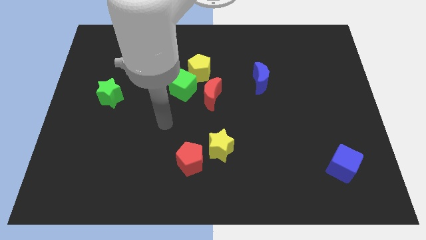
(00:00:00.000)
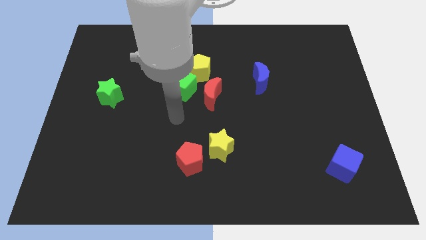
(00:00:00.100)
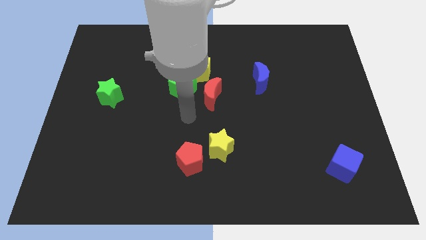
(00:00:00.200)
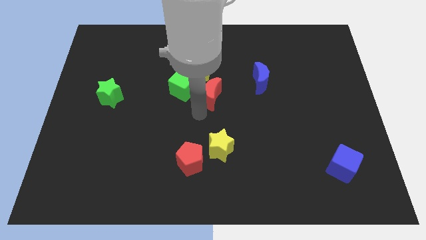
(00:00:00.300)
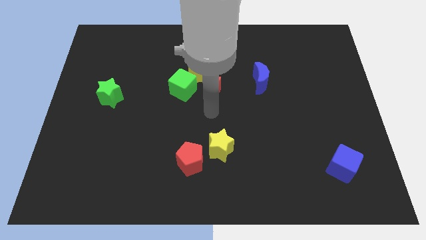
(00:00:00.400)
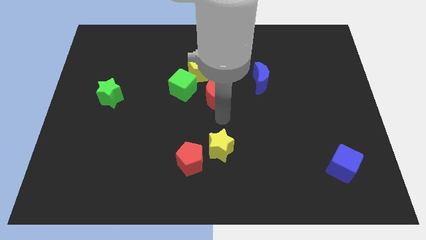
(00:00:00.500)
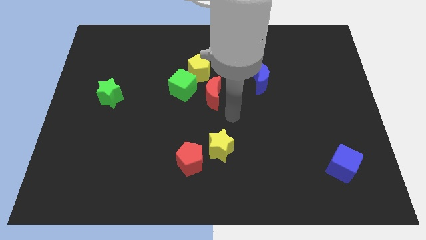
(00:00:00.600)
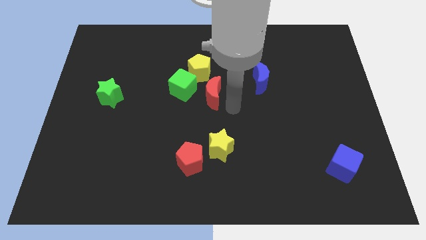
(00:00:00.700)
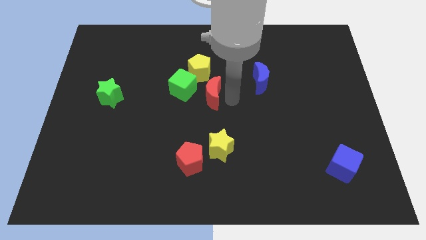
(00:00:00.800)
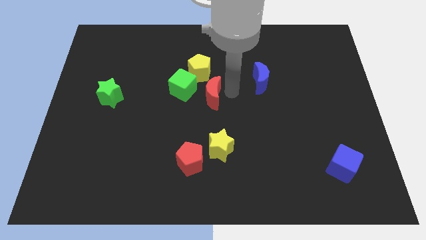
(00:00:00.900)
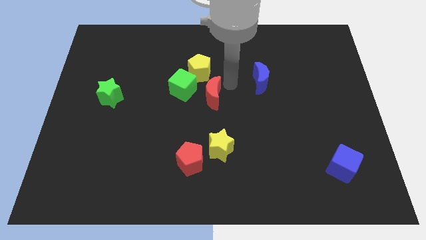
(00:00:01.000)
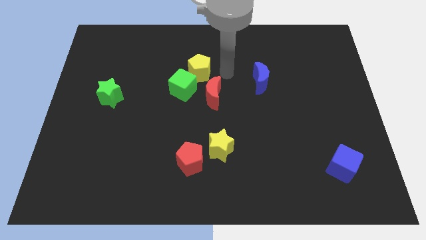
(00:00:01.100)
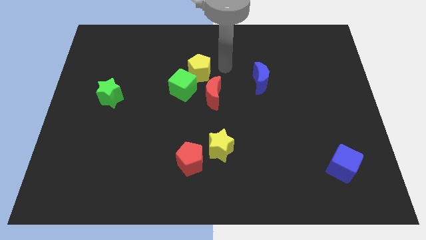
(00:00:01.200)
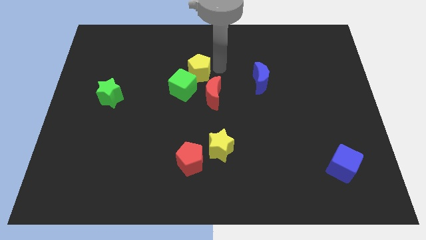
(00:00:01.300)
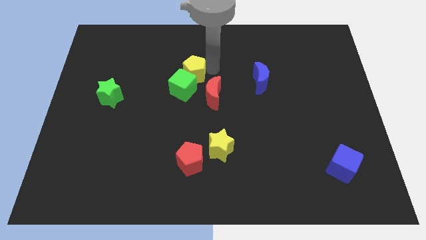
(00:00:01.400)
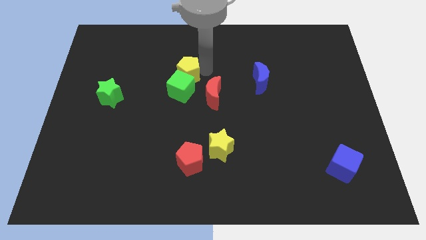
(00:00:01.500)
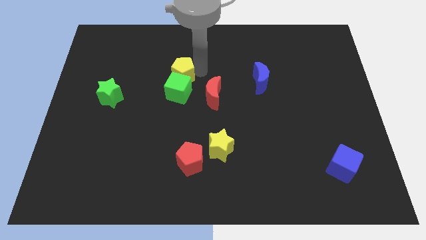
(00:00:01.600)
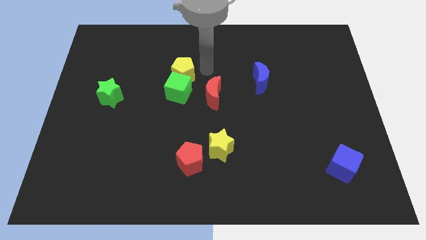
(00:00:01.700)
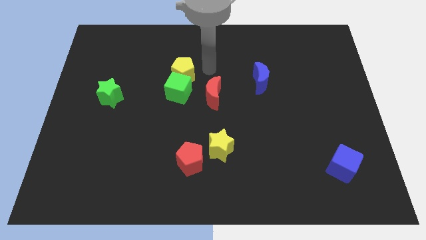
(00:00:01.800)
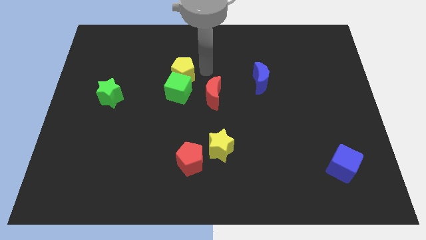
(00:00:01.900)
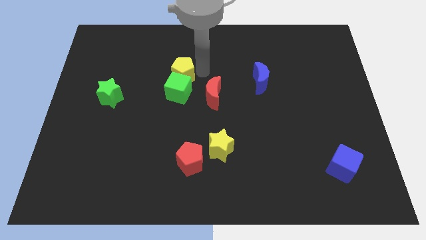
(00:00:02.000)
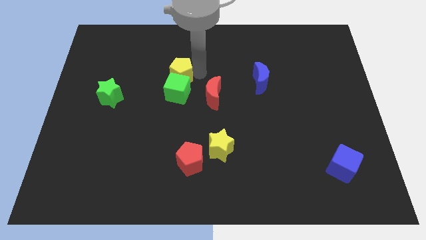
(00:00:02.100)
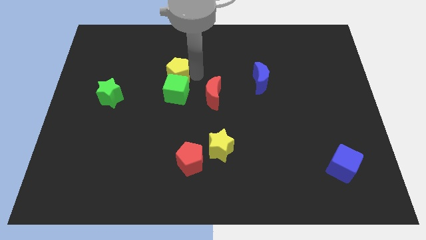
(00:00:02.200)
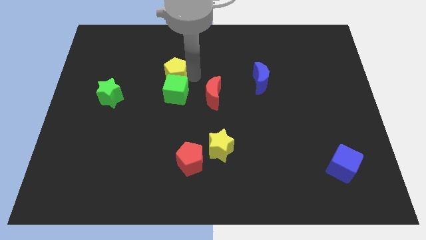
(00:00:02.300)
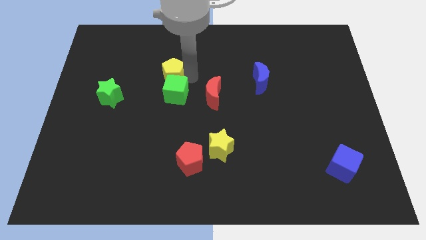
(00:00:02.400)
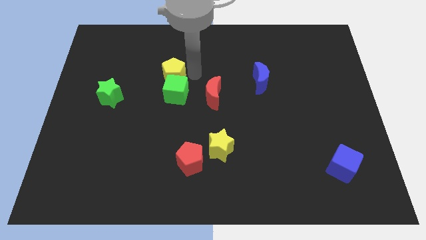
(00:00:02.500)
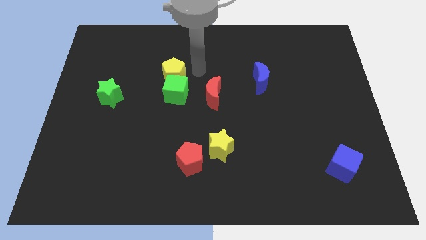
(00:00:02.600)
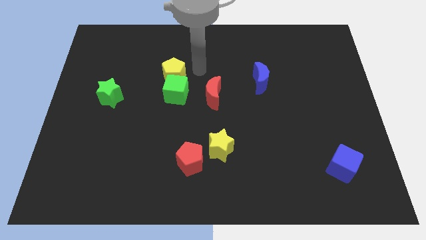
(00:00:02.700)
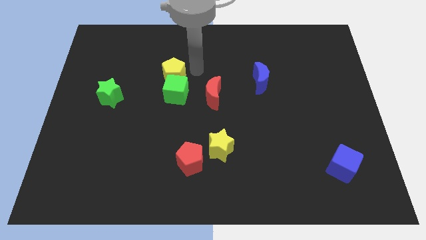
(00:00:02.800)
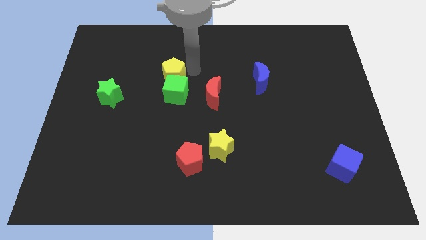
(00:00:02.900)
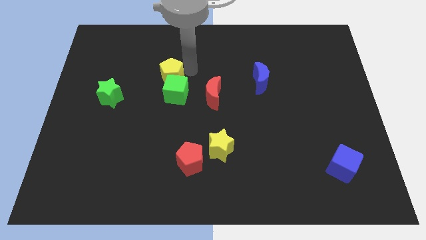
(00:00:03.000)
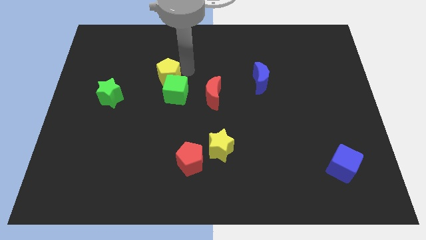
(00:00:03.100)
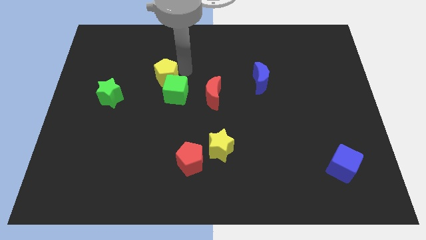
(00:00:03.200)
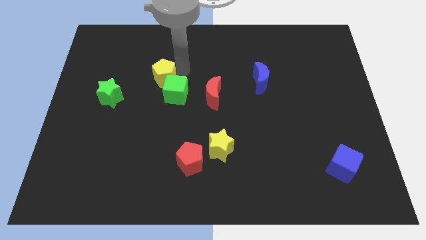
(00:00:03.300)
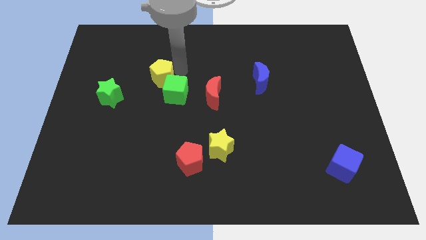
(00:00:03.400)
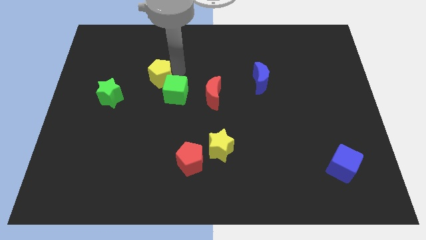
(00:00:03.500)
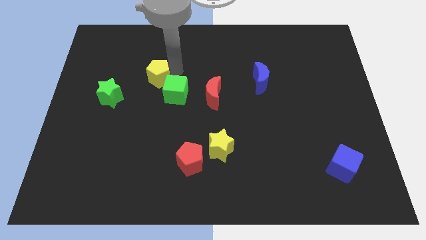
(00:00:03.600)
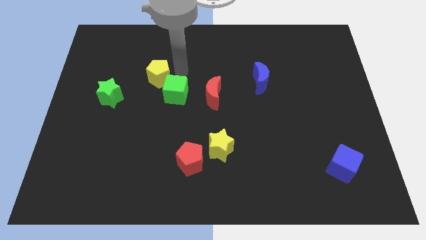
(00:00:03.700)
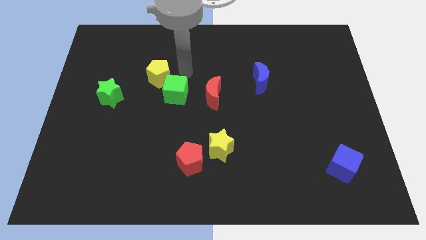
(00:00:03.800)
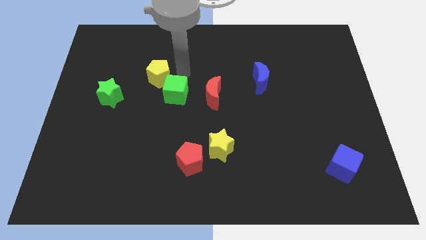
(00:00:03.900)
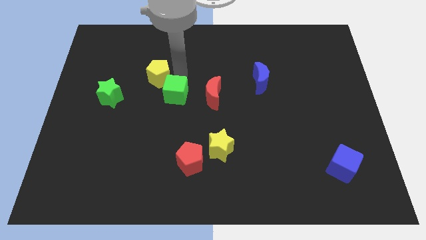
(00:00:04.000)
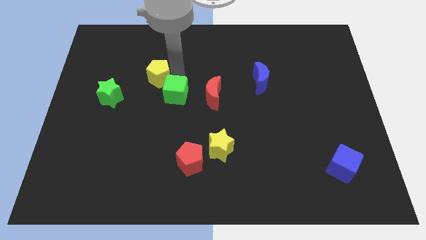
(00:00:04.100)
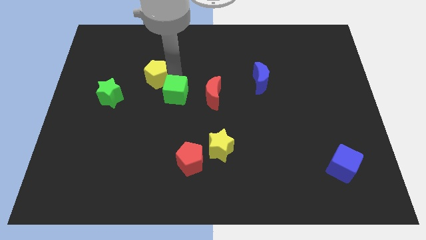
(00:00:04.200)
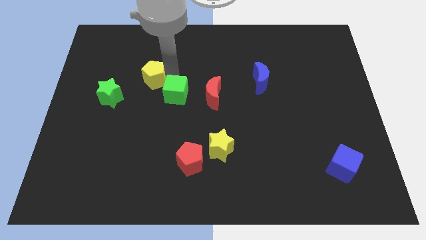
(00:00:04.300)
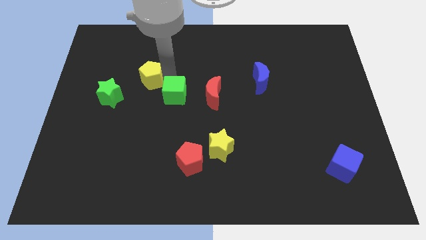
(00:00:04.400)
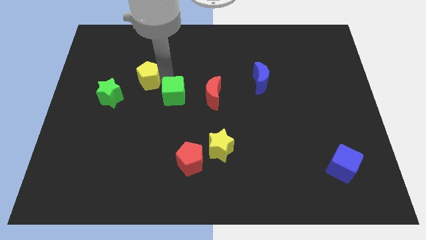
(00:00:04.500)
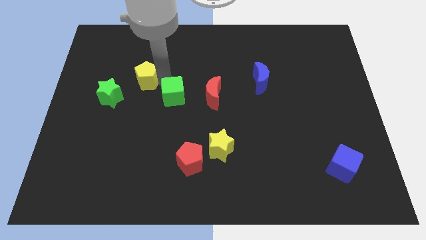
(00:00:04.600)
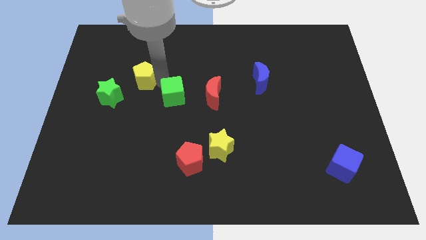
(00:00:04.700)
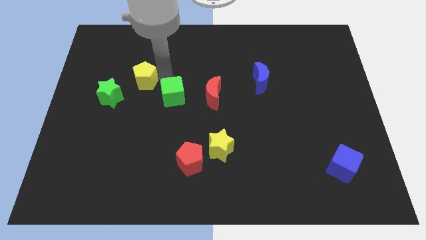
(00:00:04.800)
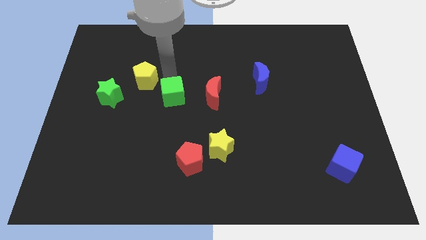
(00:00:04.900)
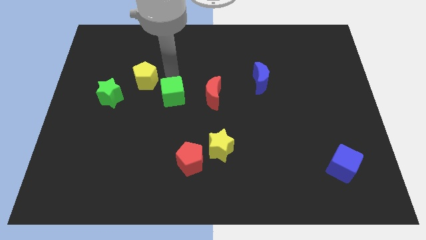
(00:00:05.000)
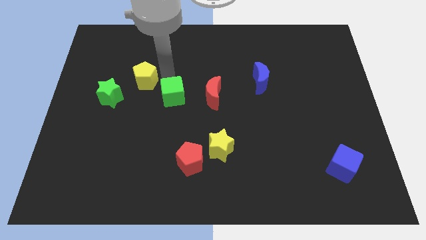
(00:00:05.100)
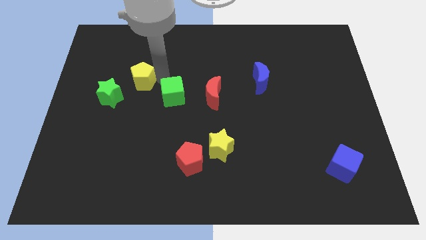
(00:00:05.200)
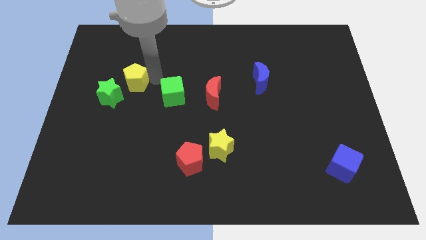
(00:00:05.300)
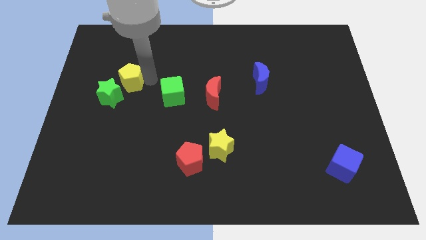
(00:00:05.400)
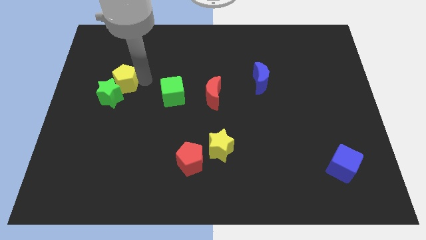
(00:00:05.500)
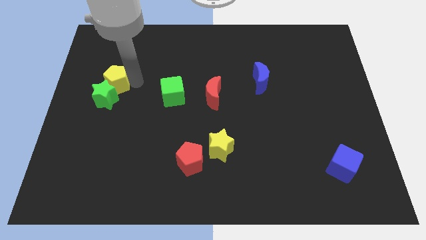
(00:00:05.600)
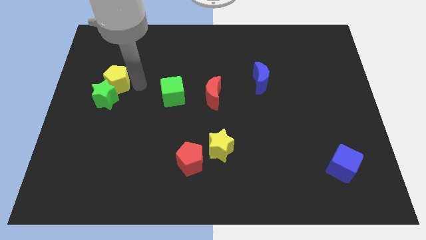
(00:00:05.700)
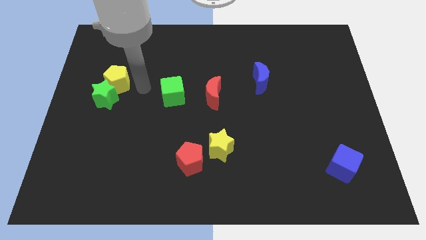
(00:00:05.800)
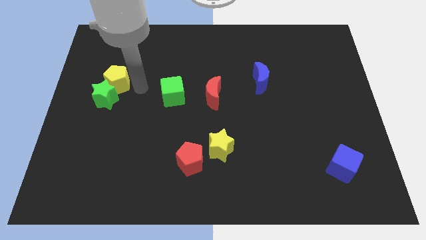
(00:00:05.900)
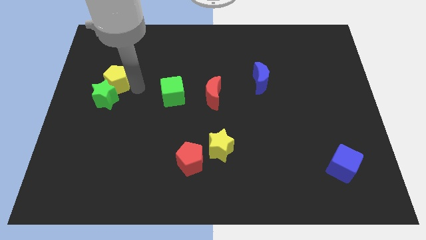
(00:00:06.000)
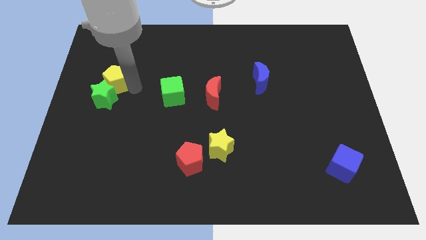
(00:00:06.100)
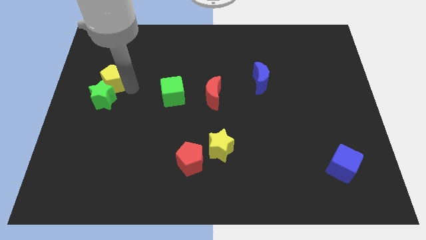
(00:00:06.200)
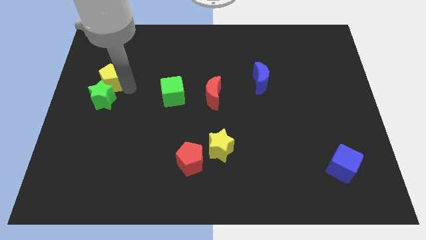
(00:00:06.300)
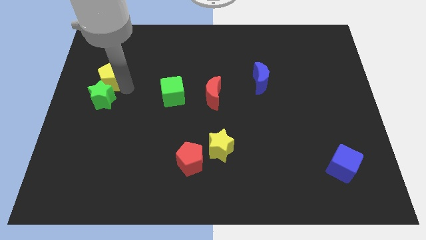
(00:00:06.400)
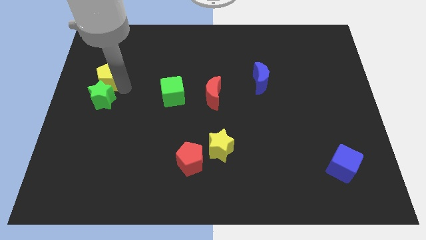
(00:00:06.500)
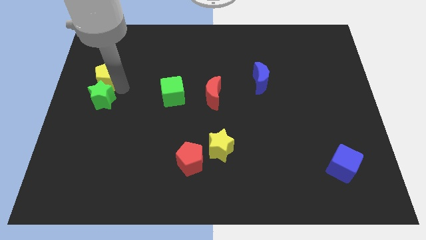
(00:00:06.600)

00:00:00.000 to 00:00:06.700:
put the yellow pentagon to the left side
